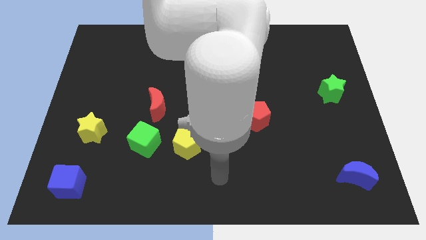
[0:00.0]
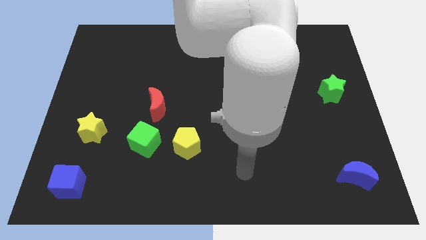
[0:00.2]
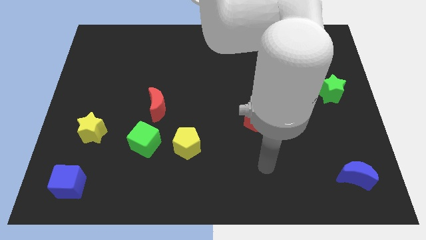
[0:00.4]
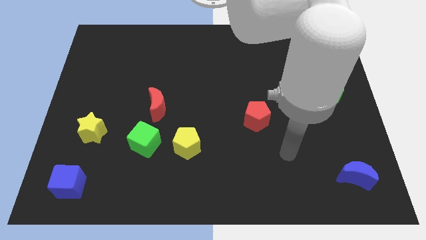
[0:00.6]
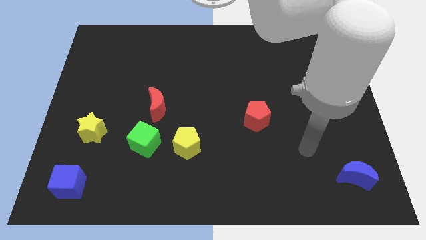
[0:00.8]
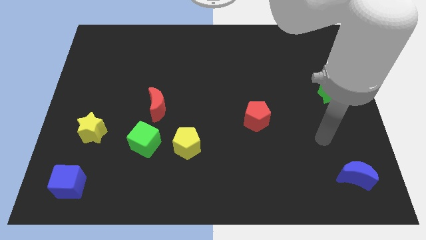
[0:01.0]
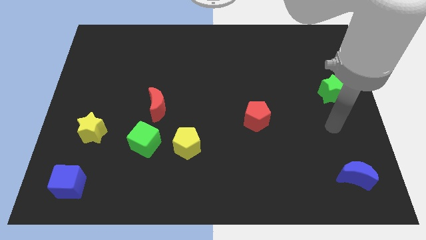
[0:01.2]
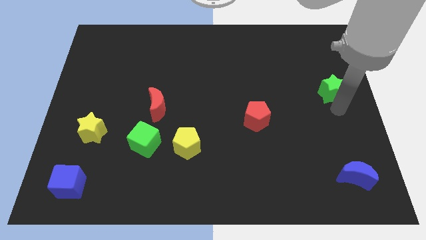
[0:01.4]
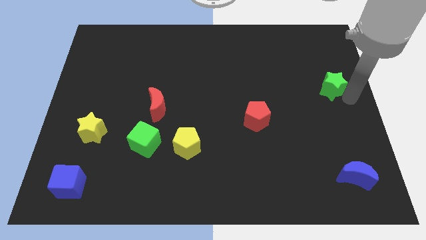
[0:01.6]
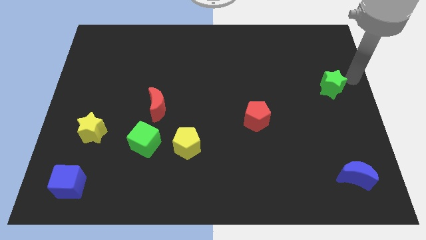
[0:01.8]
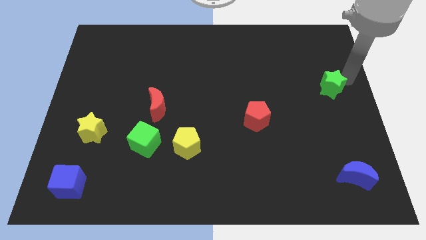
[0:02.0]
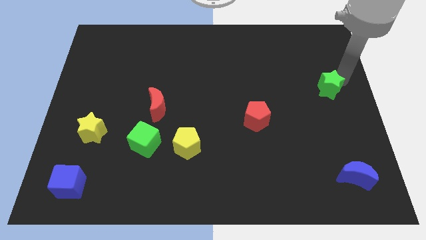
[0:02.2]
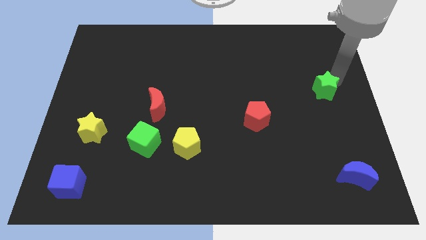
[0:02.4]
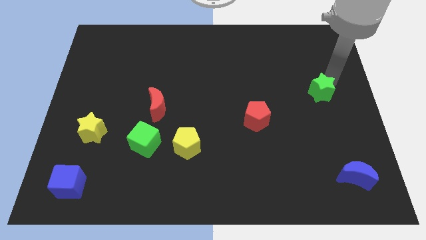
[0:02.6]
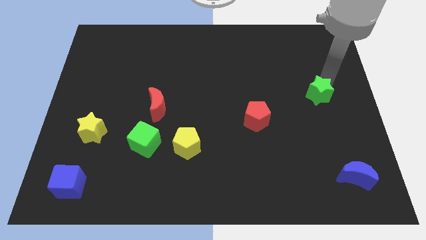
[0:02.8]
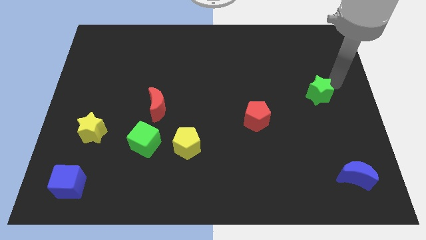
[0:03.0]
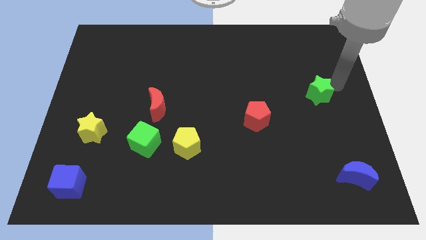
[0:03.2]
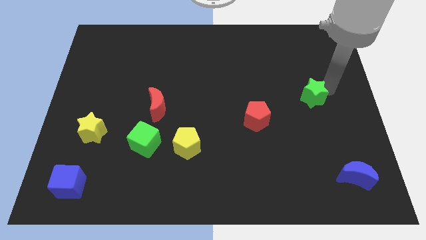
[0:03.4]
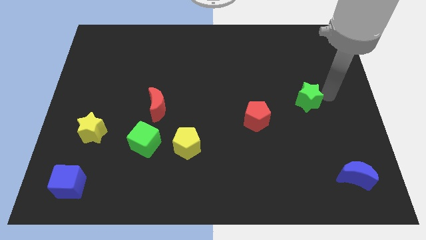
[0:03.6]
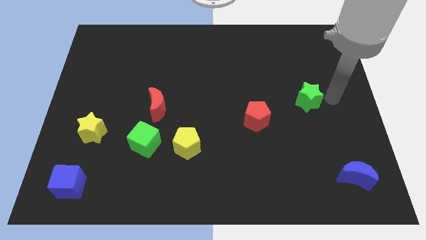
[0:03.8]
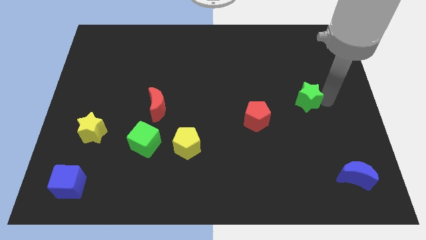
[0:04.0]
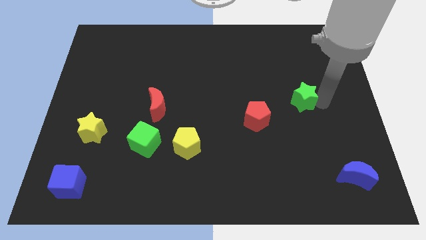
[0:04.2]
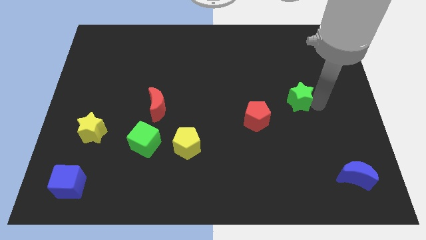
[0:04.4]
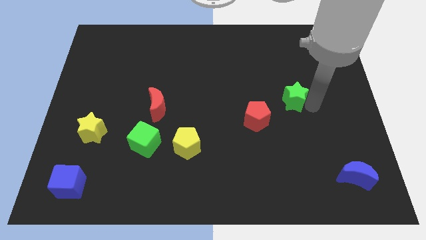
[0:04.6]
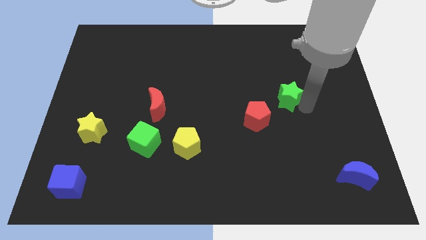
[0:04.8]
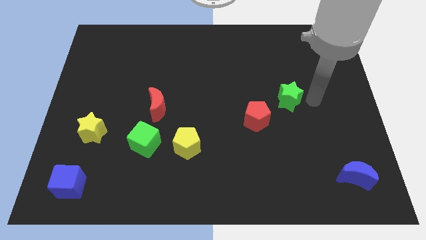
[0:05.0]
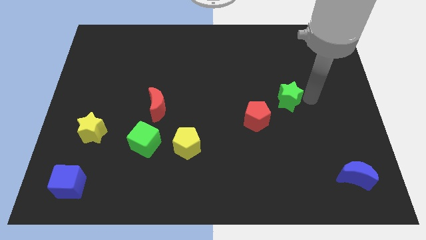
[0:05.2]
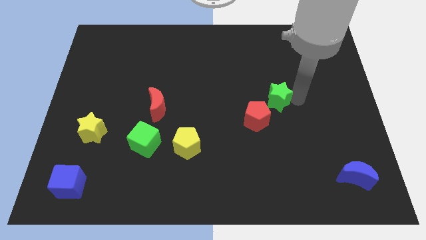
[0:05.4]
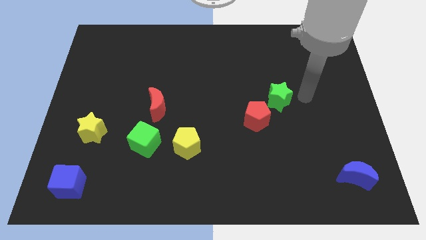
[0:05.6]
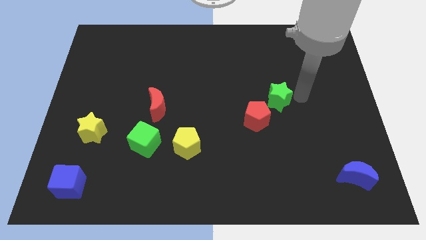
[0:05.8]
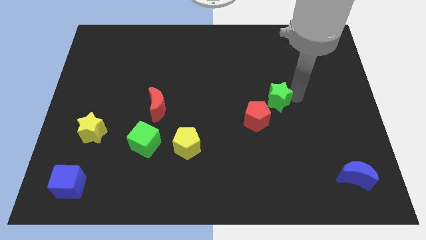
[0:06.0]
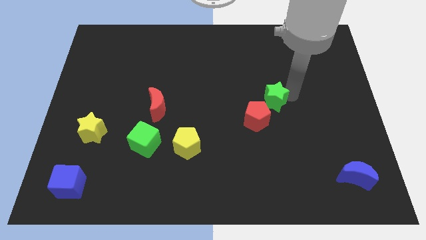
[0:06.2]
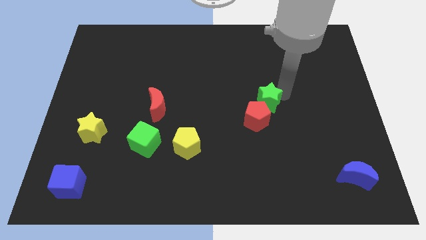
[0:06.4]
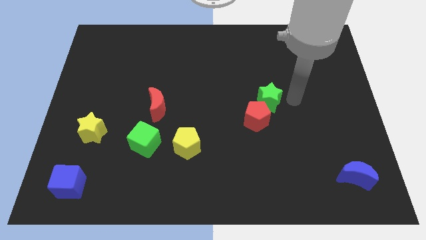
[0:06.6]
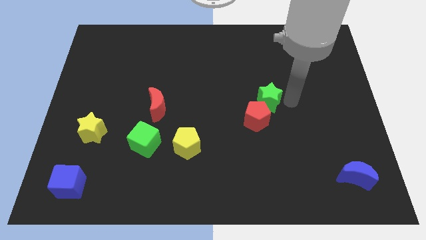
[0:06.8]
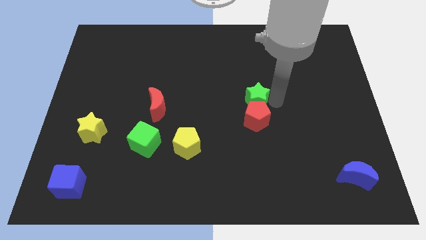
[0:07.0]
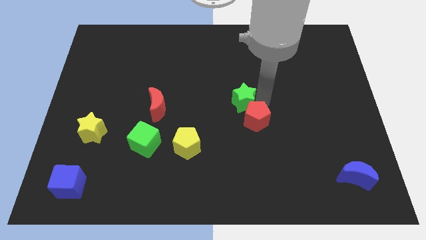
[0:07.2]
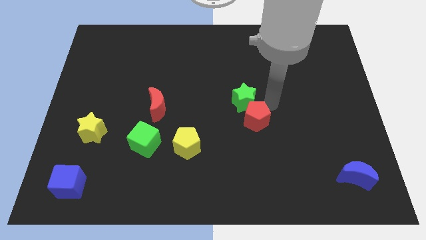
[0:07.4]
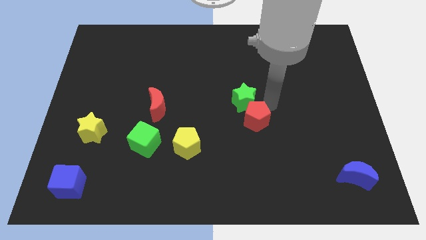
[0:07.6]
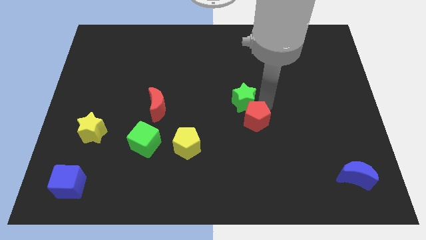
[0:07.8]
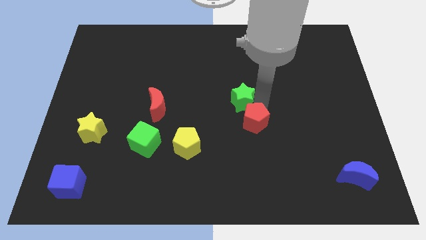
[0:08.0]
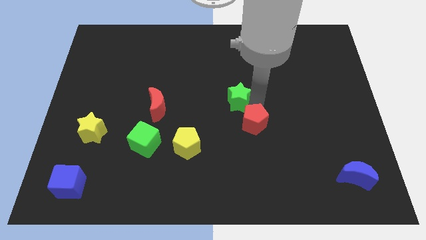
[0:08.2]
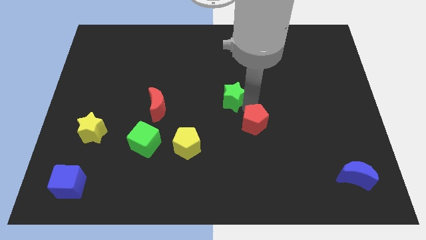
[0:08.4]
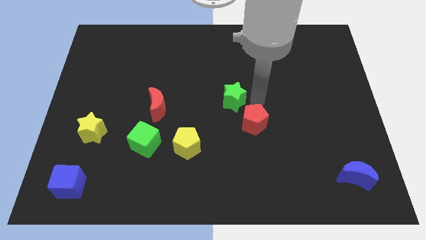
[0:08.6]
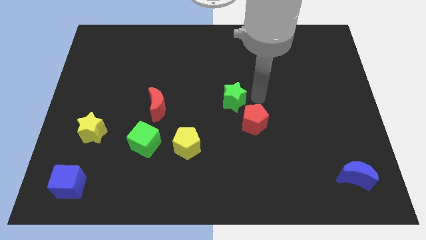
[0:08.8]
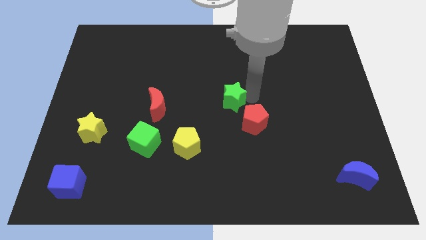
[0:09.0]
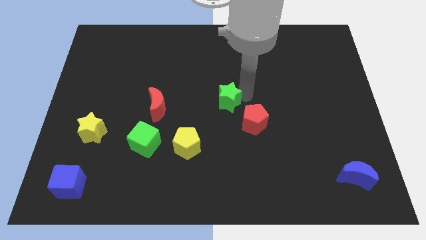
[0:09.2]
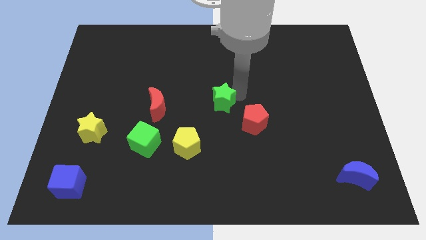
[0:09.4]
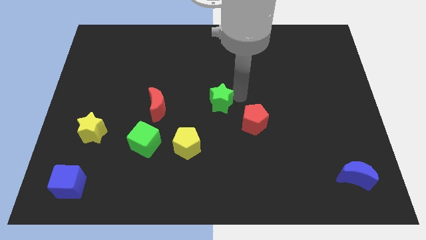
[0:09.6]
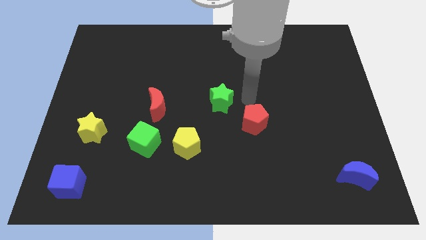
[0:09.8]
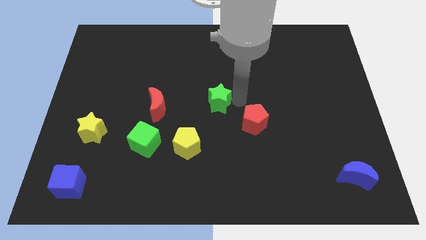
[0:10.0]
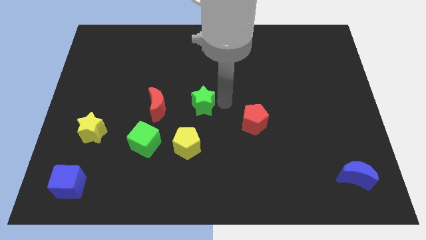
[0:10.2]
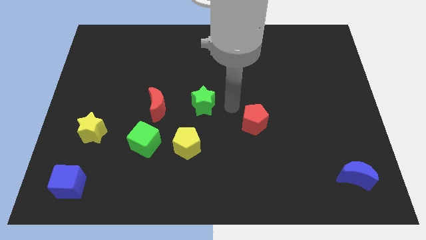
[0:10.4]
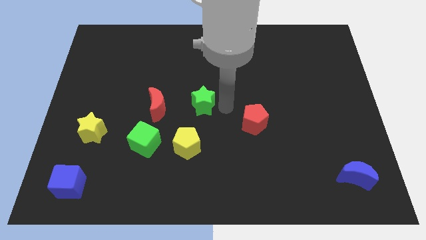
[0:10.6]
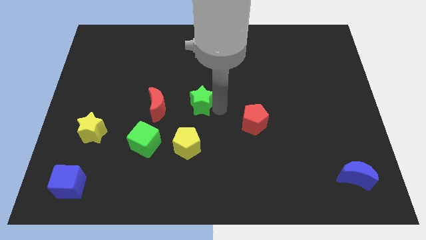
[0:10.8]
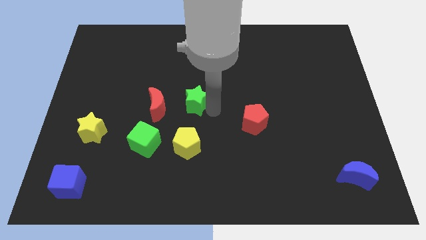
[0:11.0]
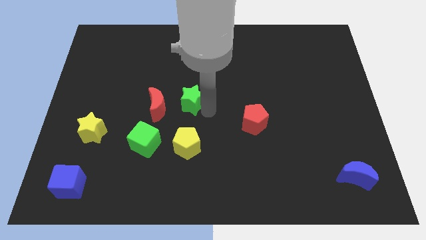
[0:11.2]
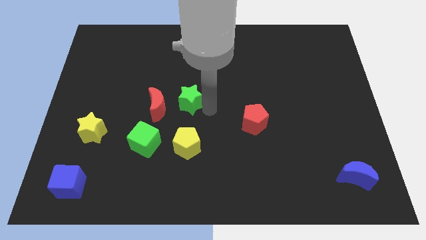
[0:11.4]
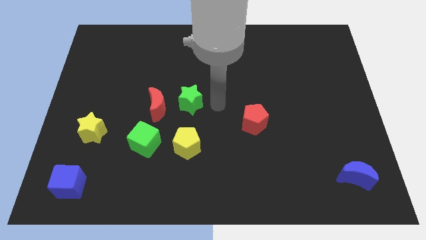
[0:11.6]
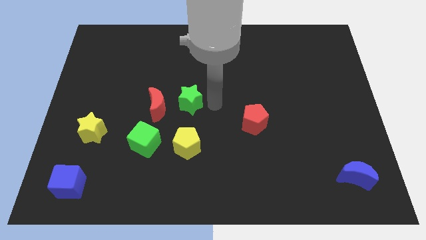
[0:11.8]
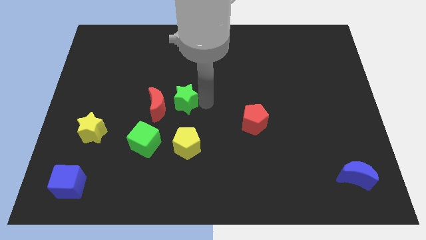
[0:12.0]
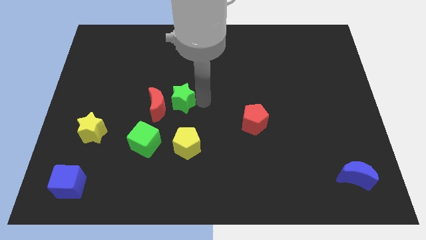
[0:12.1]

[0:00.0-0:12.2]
push the green star to the red moon
